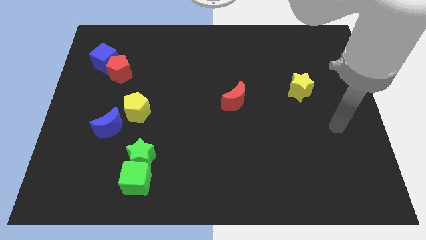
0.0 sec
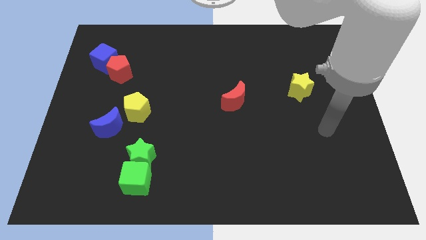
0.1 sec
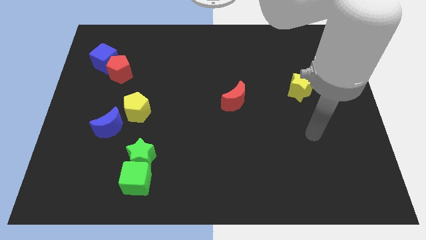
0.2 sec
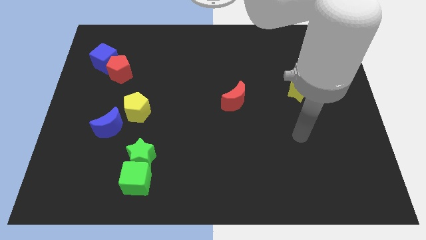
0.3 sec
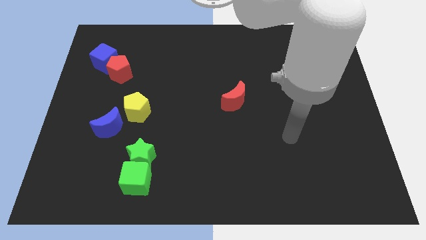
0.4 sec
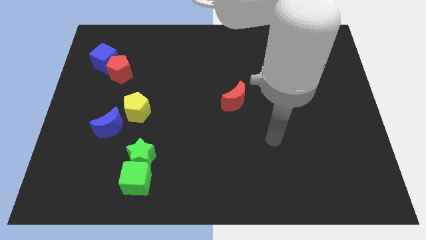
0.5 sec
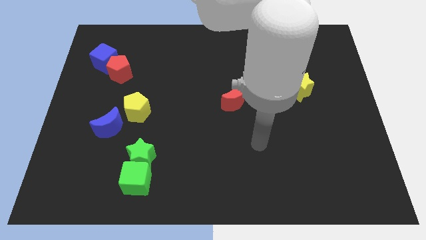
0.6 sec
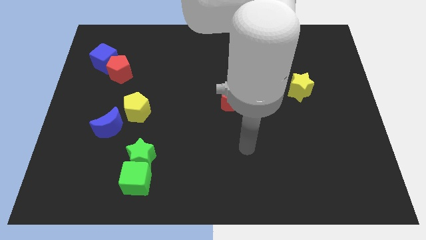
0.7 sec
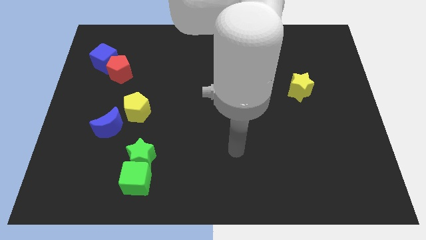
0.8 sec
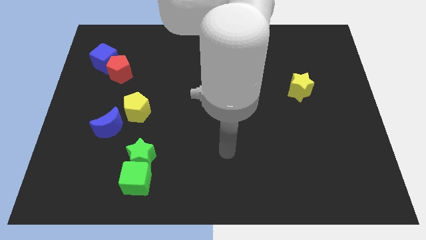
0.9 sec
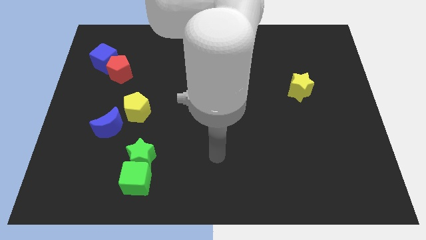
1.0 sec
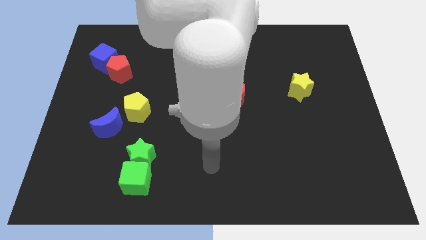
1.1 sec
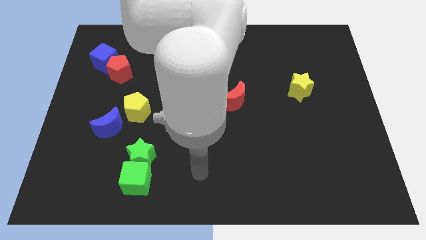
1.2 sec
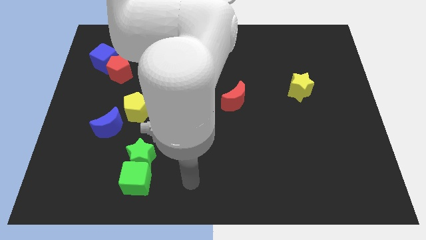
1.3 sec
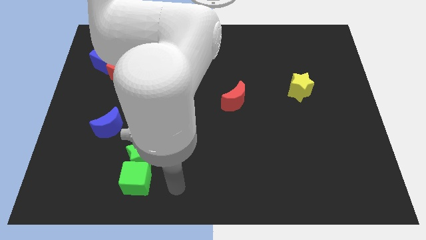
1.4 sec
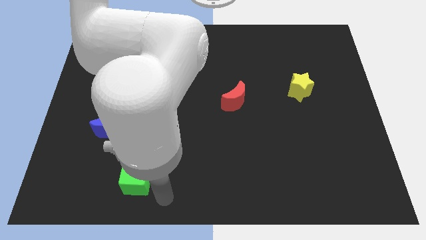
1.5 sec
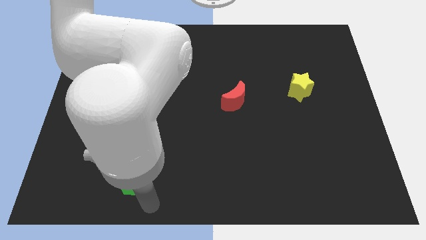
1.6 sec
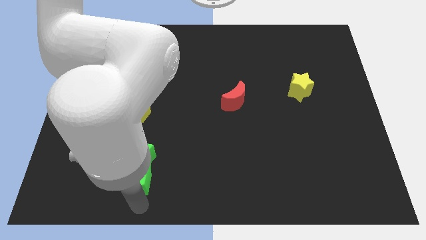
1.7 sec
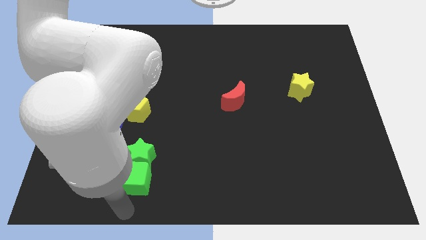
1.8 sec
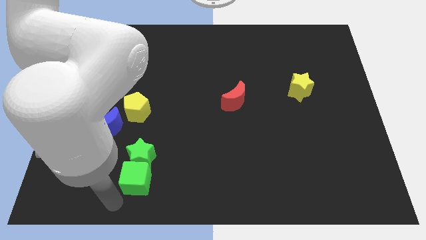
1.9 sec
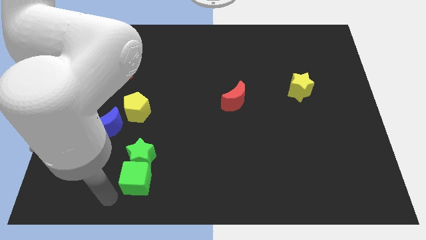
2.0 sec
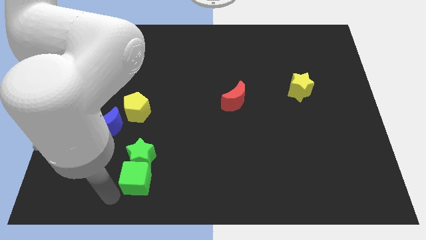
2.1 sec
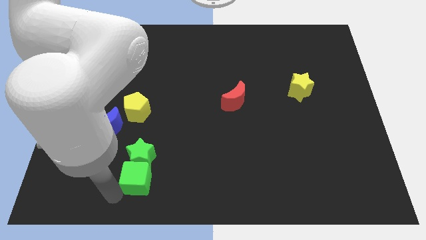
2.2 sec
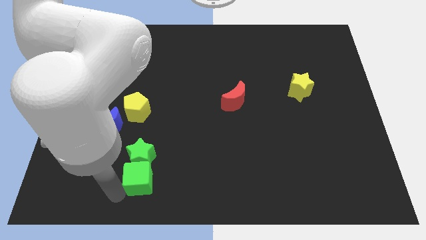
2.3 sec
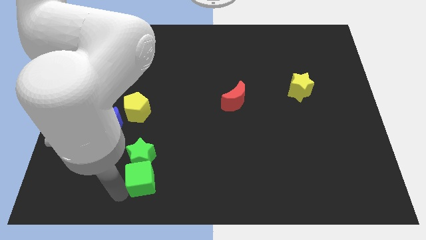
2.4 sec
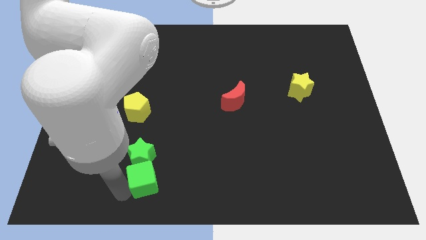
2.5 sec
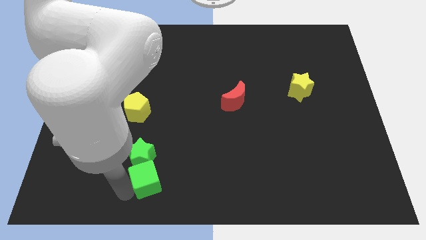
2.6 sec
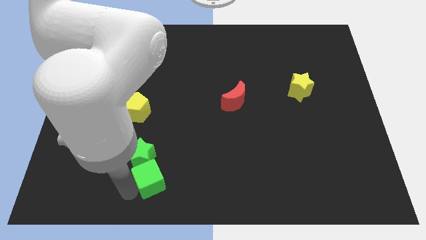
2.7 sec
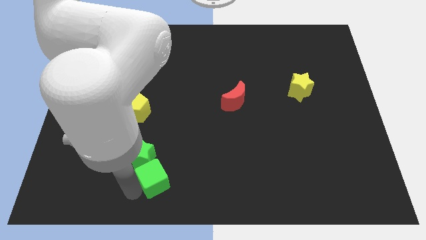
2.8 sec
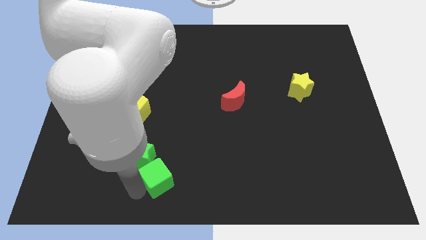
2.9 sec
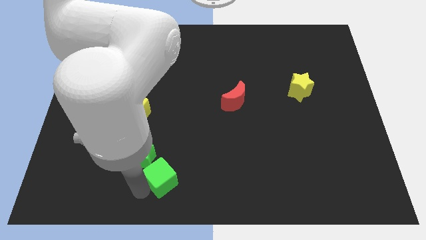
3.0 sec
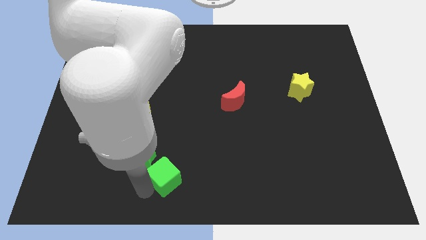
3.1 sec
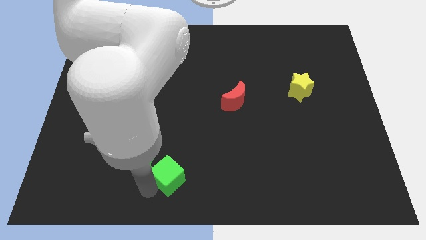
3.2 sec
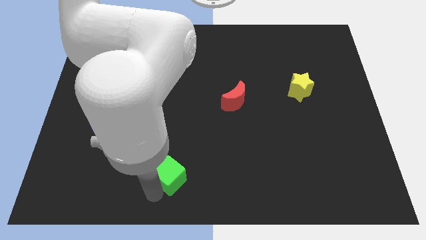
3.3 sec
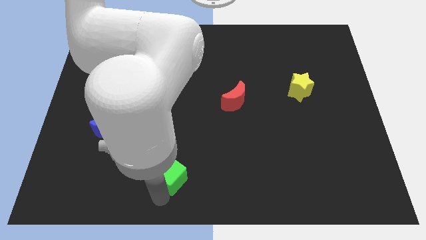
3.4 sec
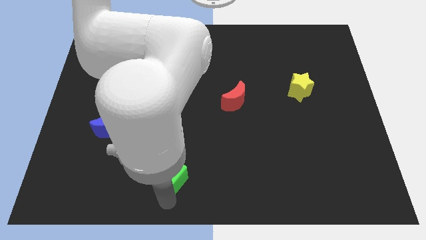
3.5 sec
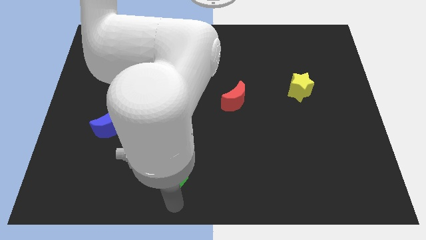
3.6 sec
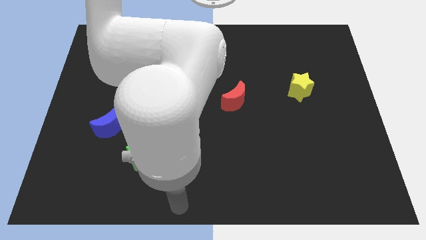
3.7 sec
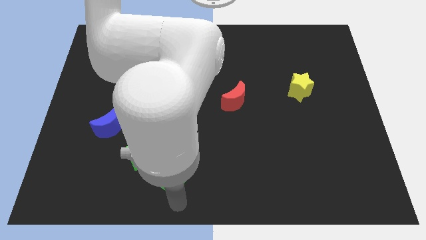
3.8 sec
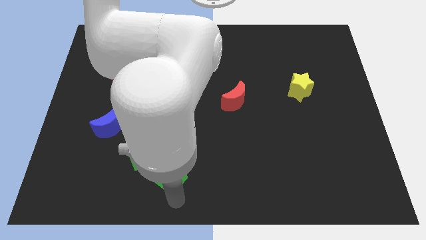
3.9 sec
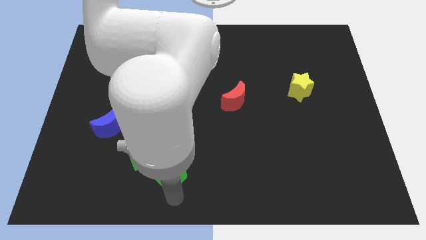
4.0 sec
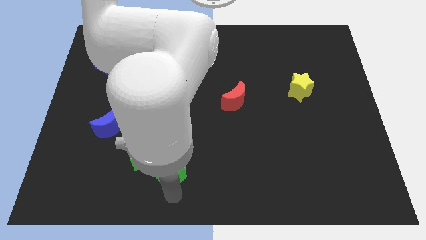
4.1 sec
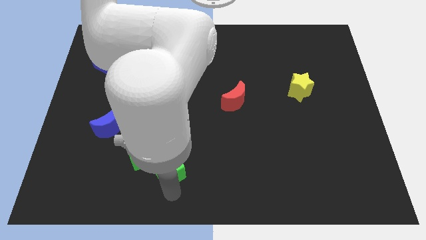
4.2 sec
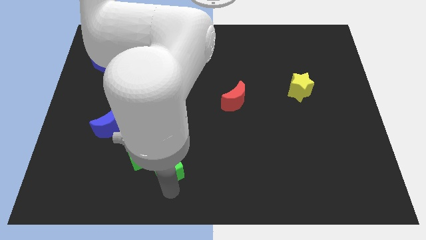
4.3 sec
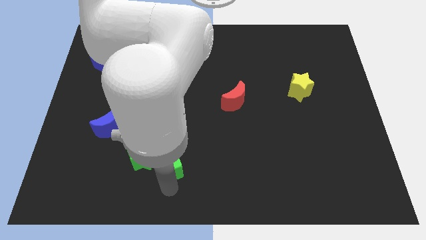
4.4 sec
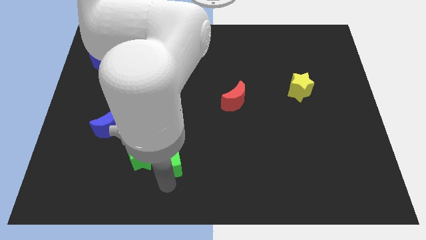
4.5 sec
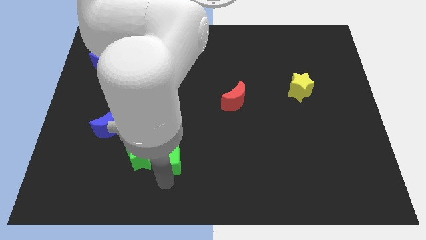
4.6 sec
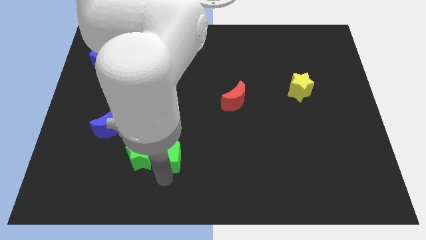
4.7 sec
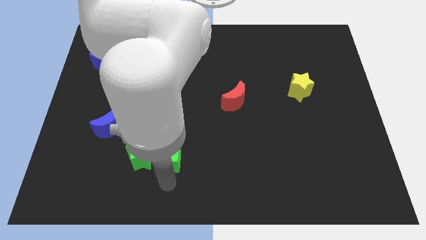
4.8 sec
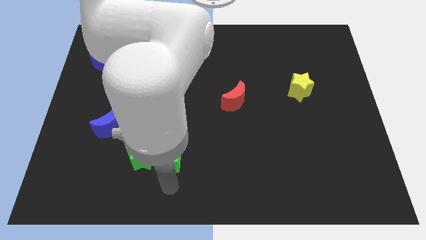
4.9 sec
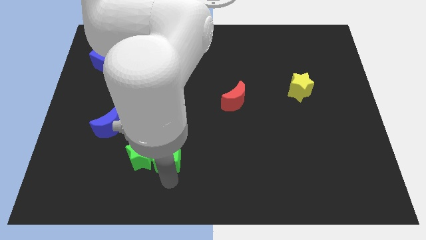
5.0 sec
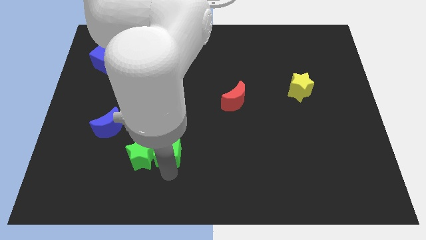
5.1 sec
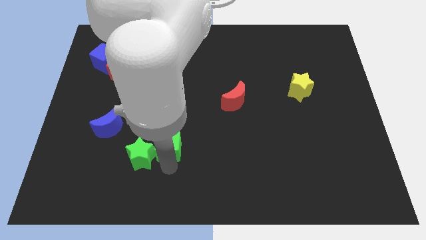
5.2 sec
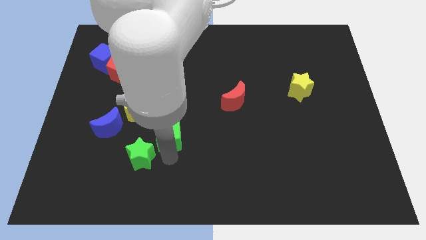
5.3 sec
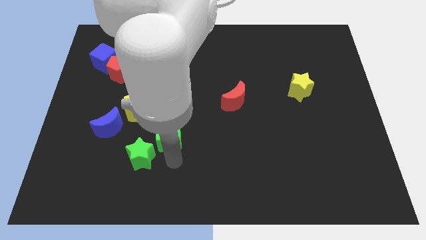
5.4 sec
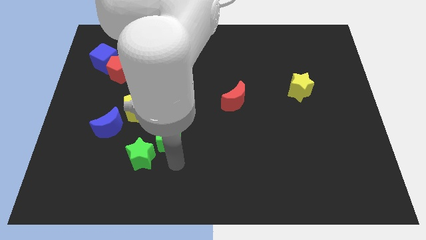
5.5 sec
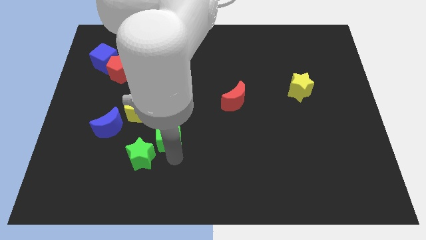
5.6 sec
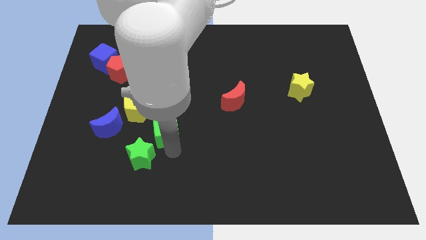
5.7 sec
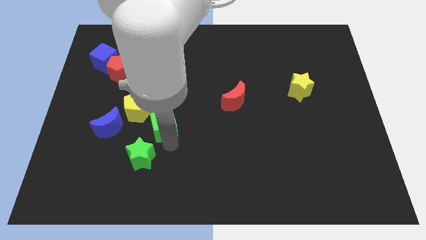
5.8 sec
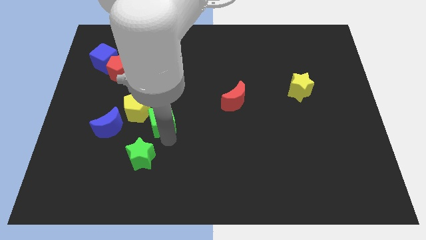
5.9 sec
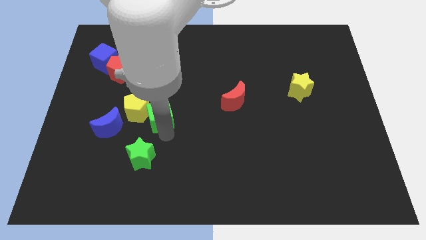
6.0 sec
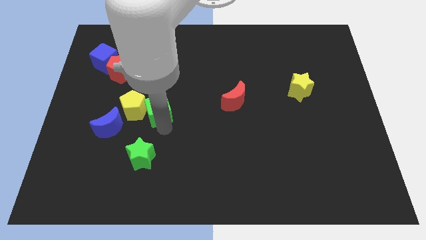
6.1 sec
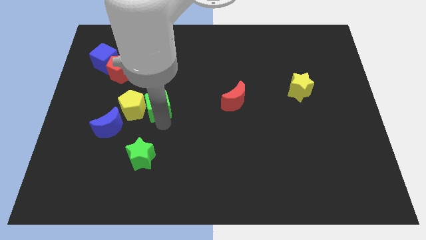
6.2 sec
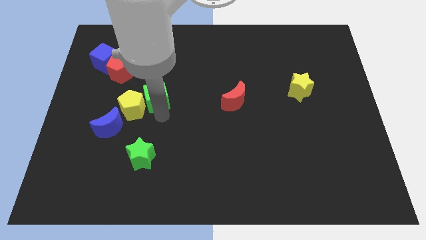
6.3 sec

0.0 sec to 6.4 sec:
push the green cube upwards

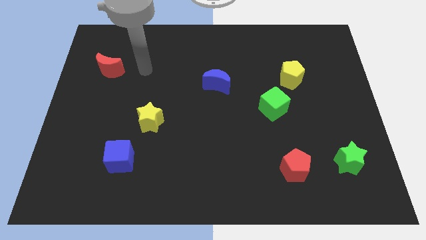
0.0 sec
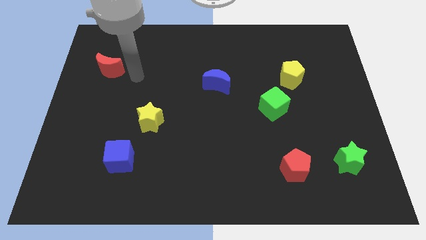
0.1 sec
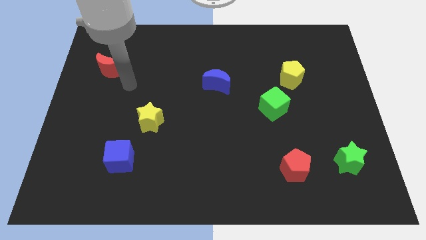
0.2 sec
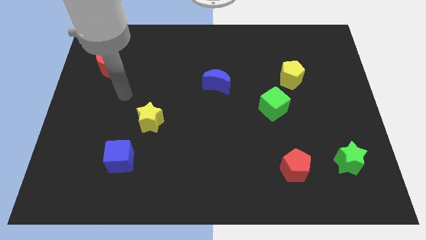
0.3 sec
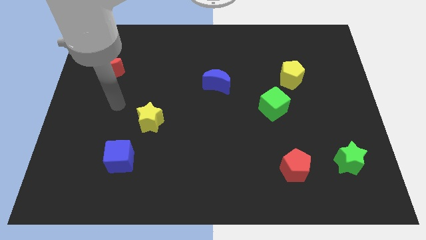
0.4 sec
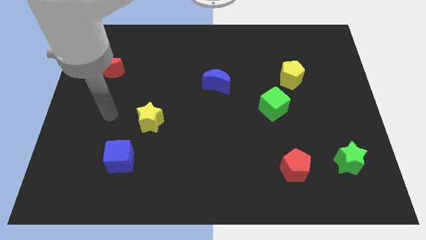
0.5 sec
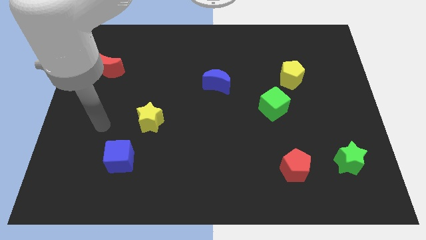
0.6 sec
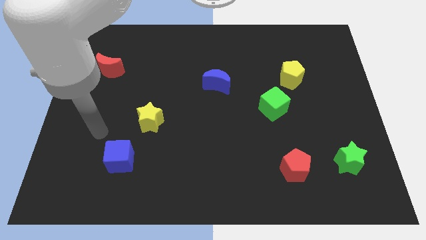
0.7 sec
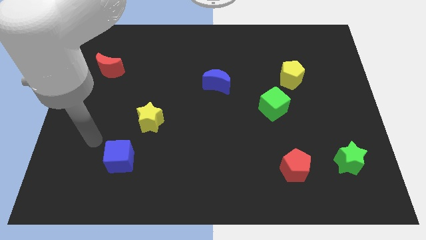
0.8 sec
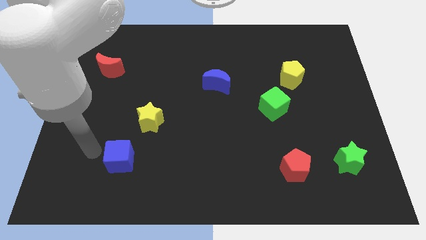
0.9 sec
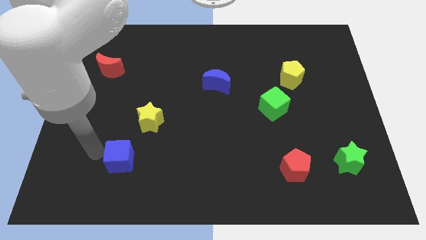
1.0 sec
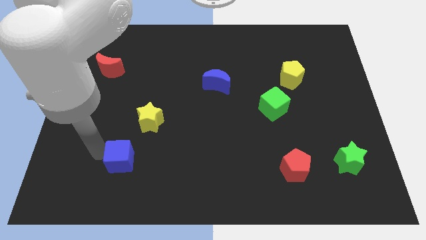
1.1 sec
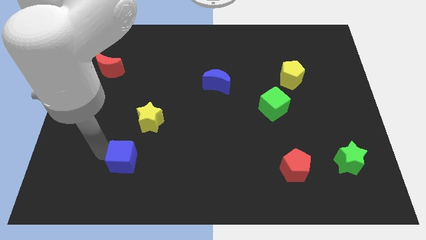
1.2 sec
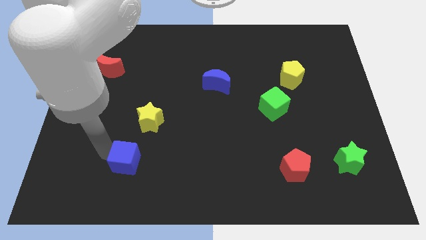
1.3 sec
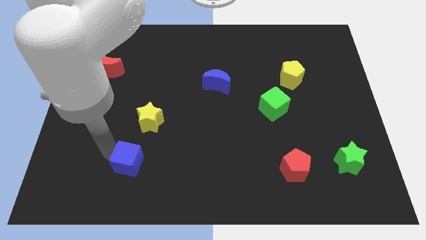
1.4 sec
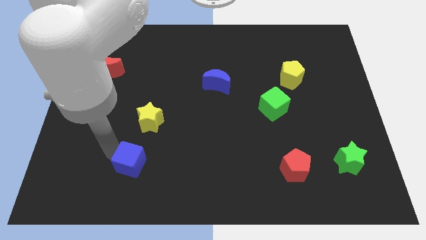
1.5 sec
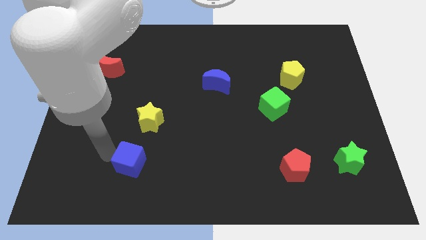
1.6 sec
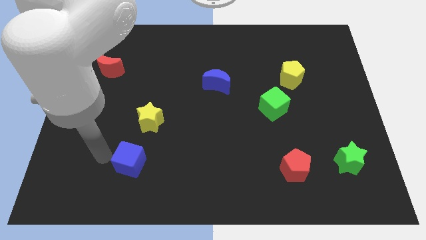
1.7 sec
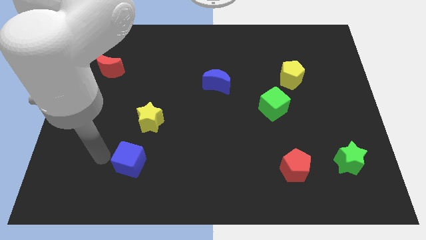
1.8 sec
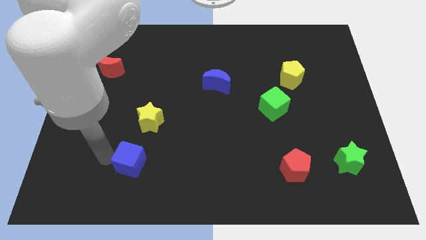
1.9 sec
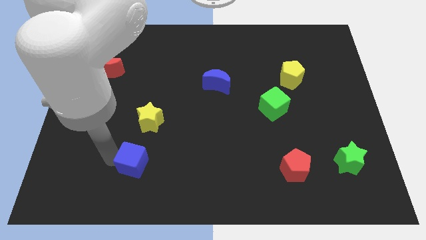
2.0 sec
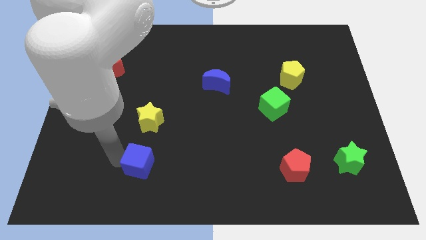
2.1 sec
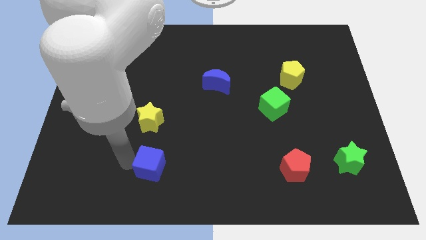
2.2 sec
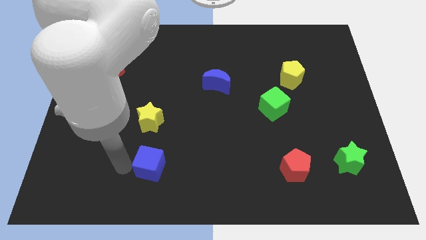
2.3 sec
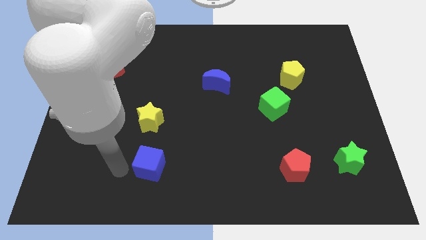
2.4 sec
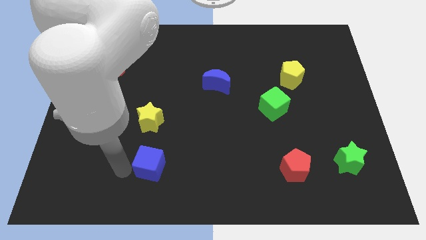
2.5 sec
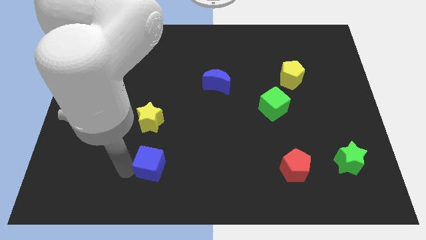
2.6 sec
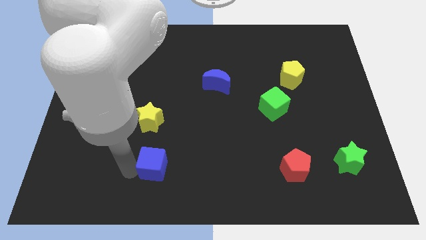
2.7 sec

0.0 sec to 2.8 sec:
slightly slide the blue cube to the right
